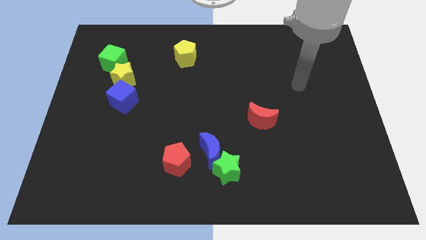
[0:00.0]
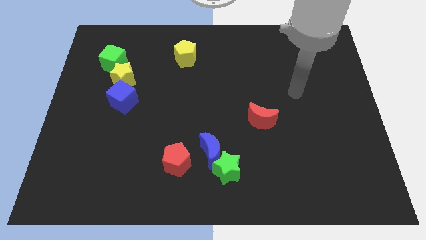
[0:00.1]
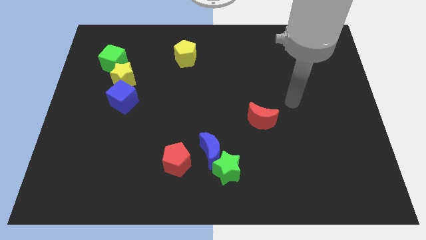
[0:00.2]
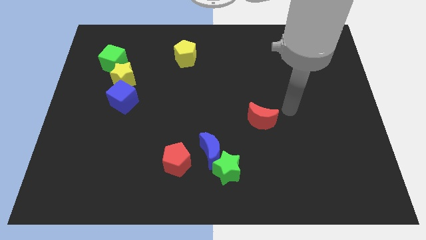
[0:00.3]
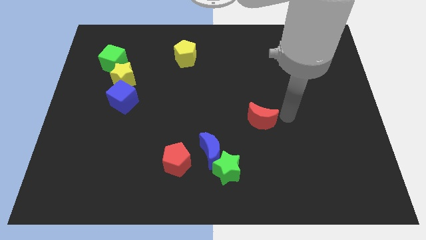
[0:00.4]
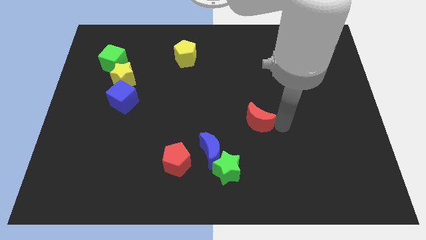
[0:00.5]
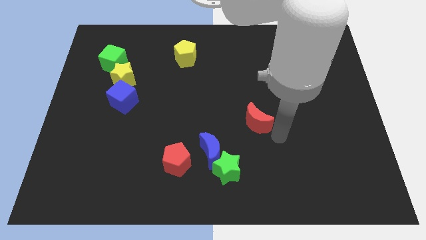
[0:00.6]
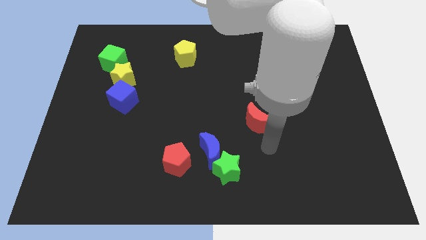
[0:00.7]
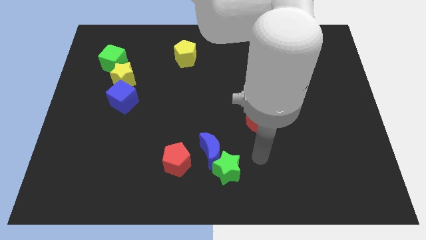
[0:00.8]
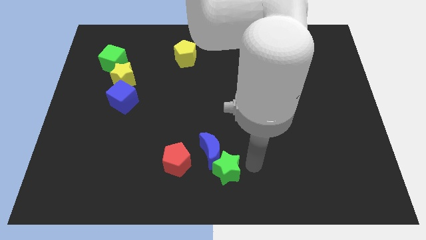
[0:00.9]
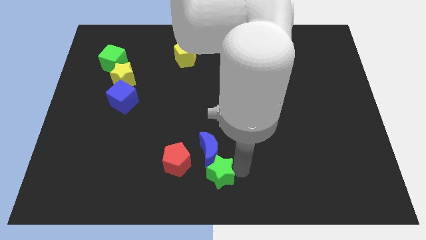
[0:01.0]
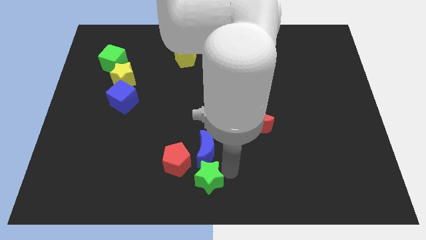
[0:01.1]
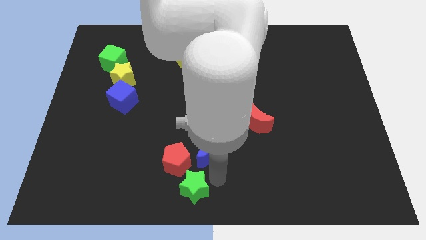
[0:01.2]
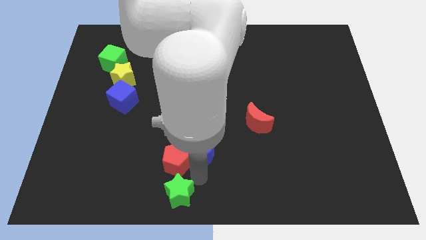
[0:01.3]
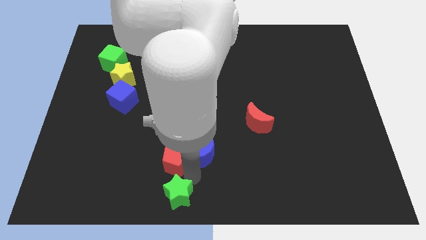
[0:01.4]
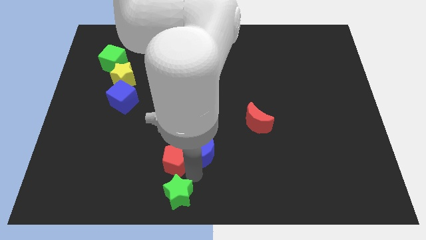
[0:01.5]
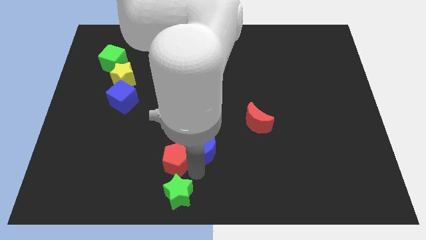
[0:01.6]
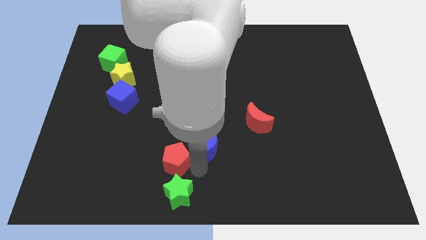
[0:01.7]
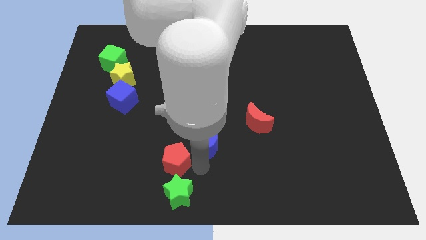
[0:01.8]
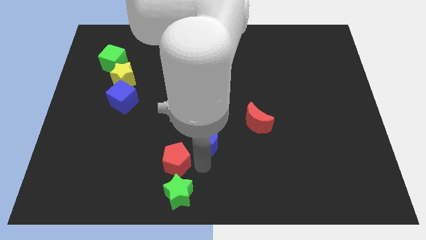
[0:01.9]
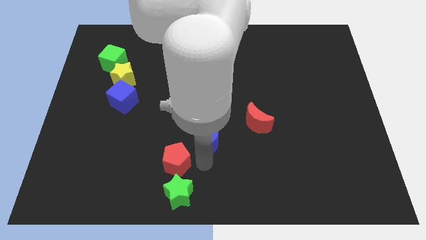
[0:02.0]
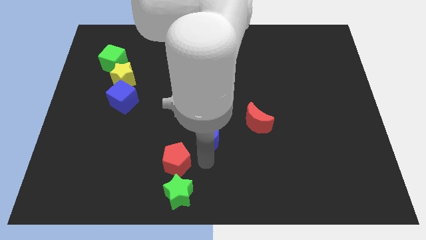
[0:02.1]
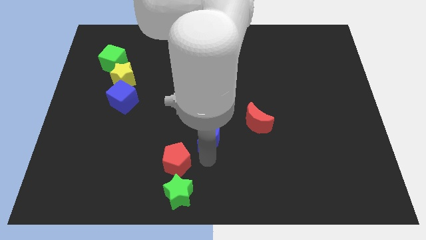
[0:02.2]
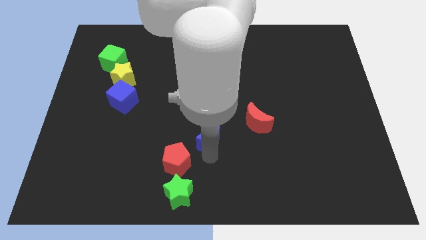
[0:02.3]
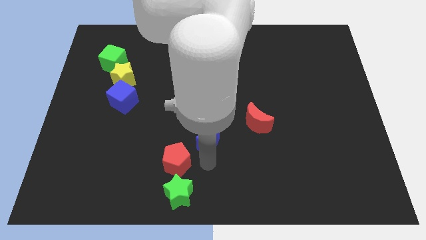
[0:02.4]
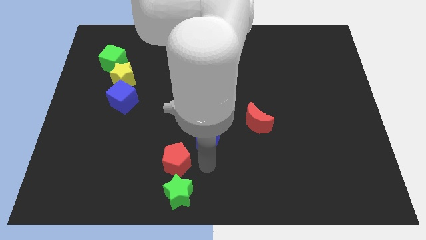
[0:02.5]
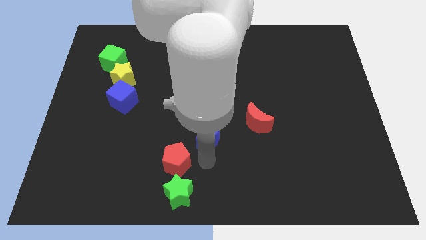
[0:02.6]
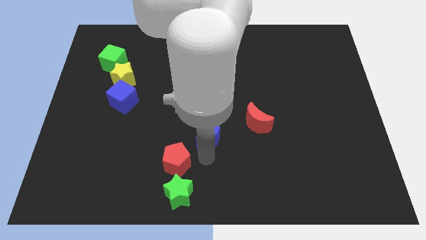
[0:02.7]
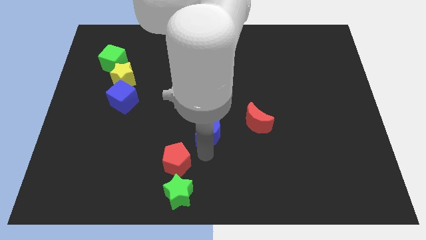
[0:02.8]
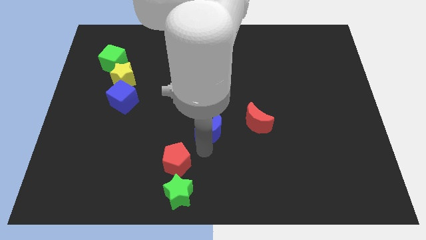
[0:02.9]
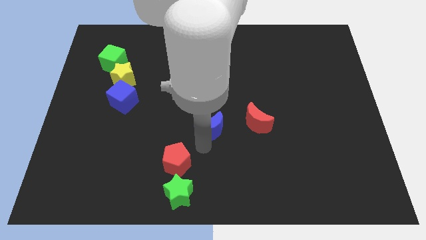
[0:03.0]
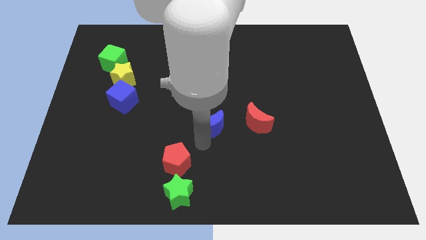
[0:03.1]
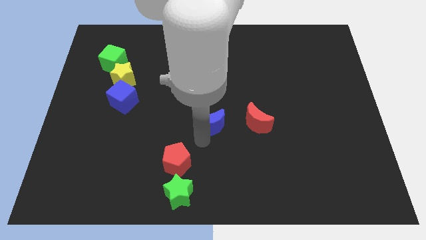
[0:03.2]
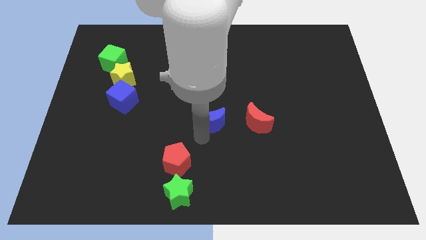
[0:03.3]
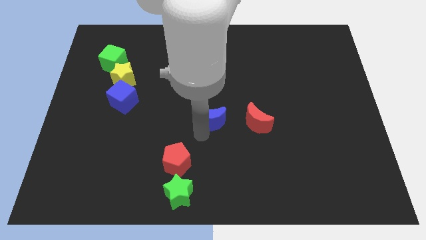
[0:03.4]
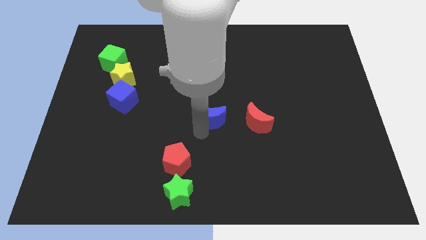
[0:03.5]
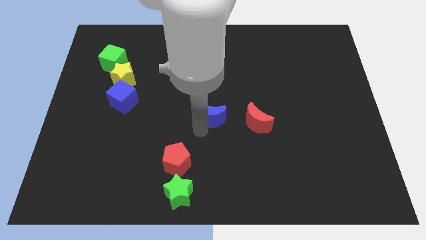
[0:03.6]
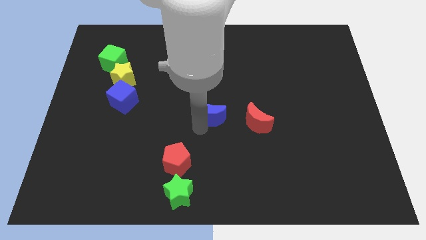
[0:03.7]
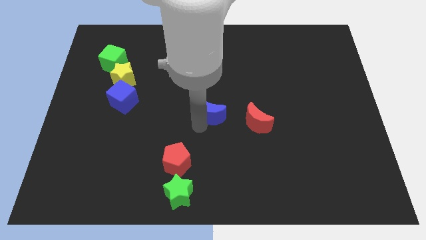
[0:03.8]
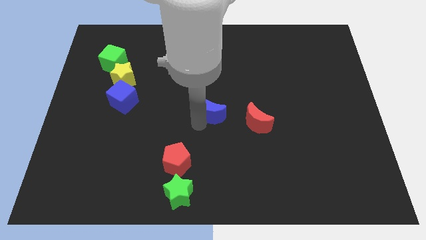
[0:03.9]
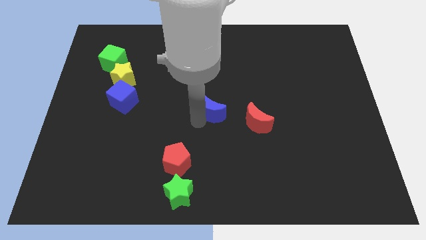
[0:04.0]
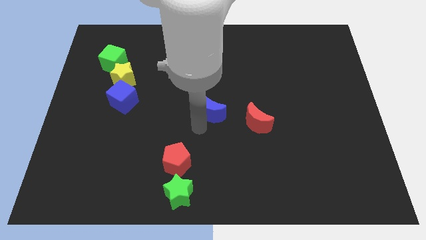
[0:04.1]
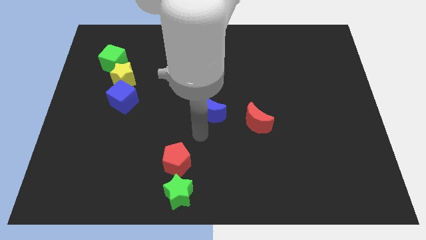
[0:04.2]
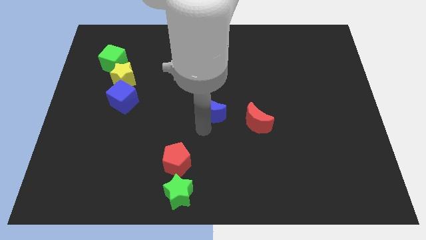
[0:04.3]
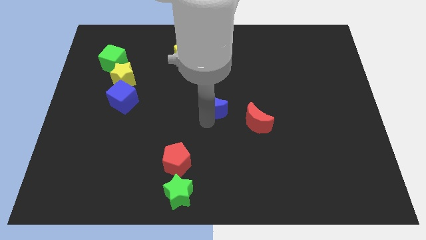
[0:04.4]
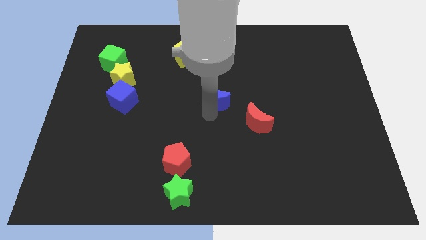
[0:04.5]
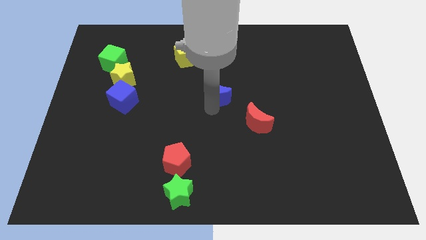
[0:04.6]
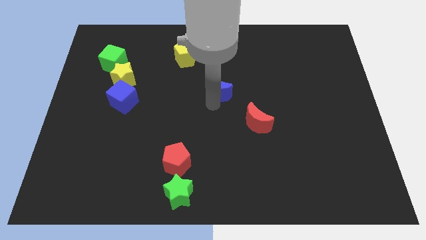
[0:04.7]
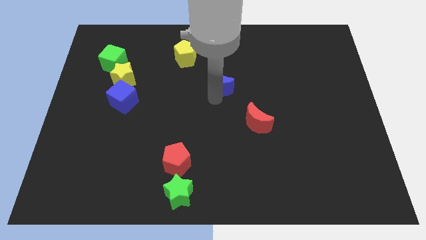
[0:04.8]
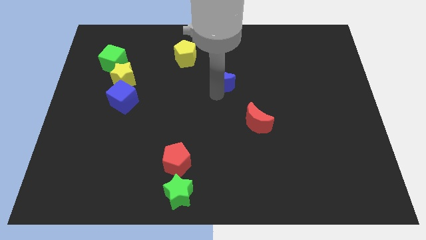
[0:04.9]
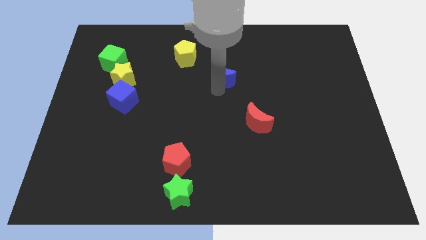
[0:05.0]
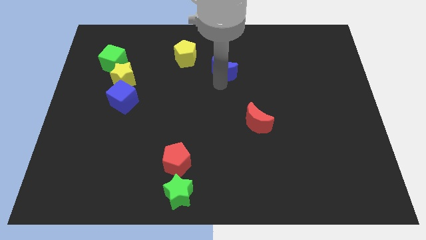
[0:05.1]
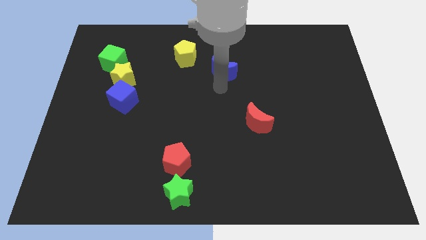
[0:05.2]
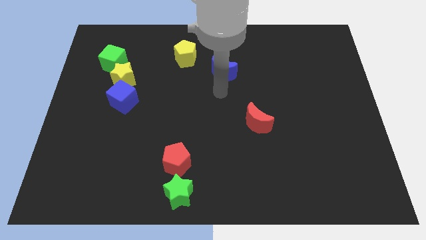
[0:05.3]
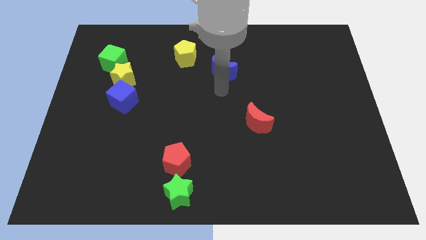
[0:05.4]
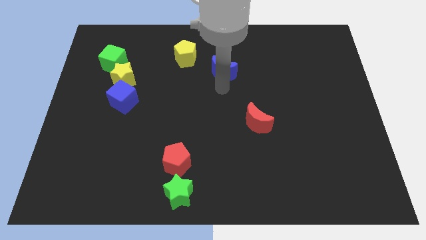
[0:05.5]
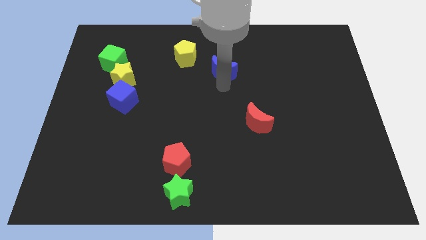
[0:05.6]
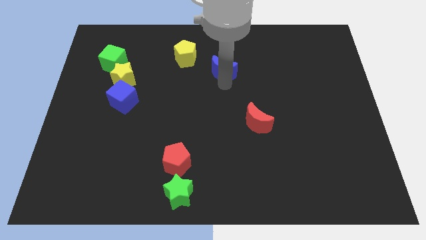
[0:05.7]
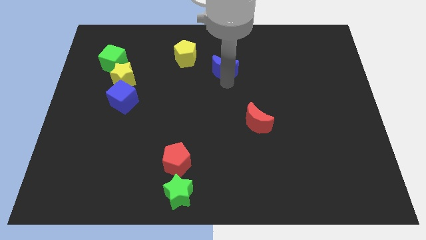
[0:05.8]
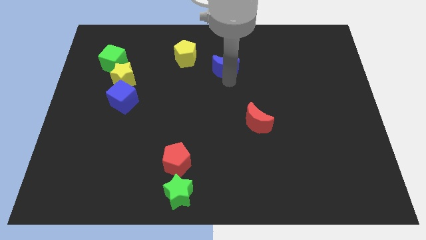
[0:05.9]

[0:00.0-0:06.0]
push the blue moon to the right of the yellow pentagon
